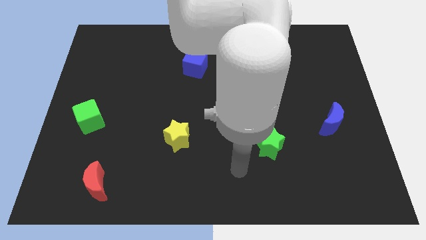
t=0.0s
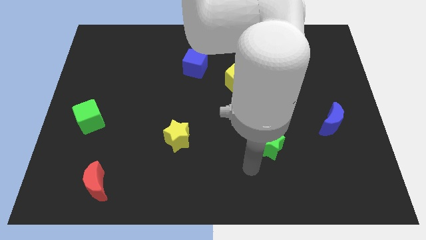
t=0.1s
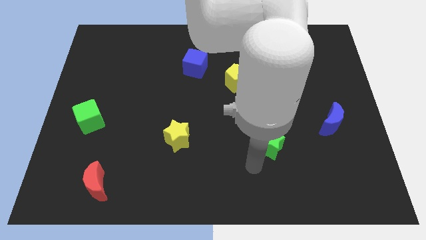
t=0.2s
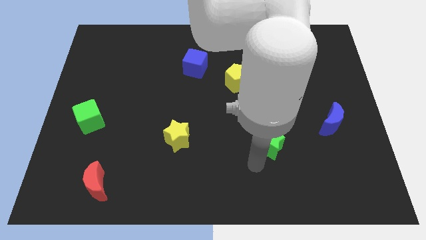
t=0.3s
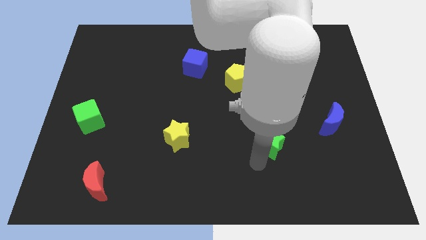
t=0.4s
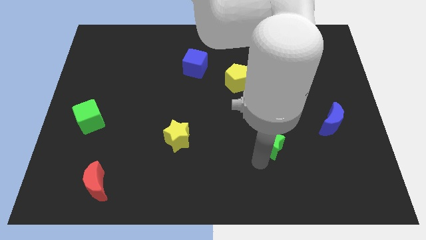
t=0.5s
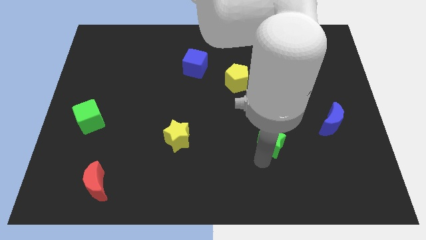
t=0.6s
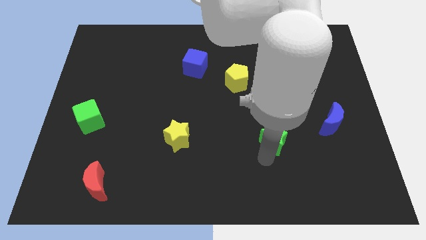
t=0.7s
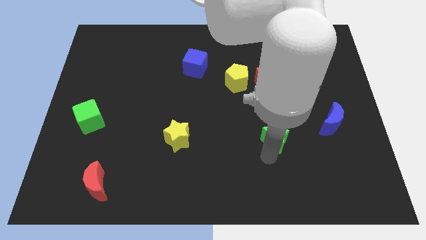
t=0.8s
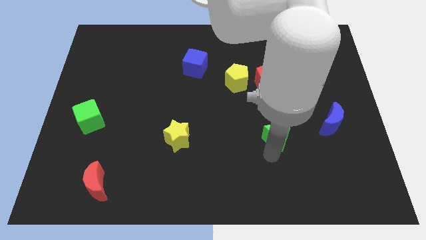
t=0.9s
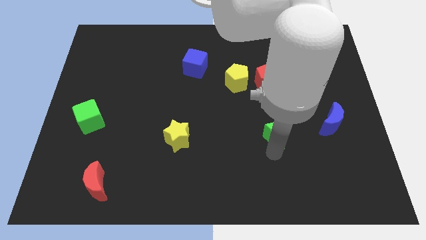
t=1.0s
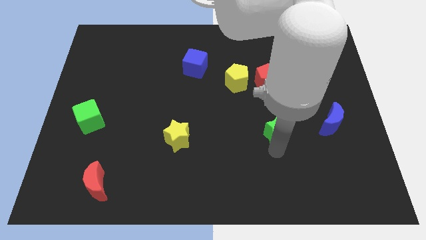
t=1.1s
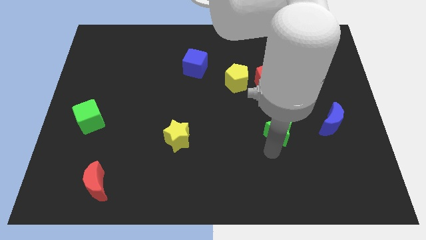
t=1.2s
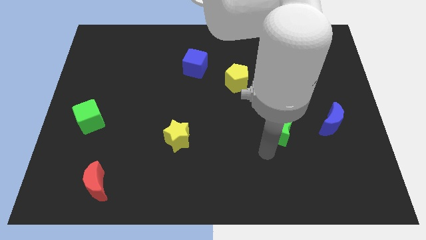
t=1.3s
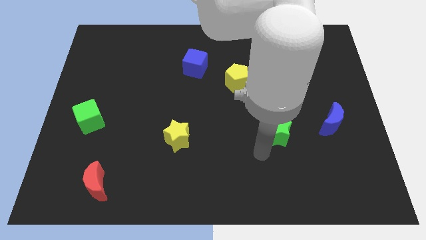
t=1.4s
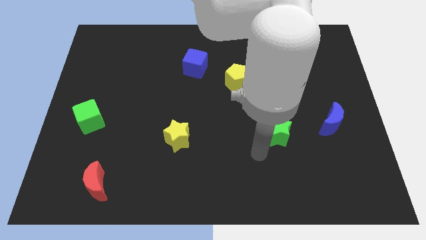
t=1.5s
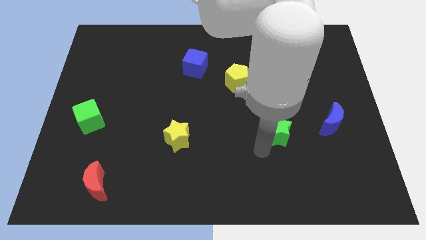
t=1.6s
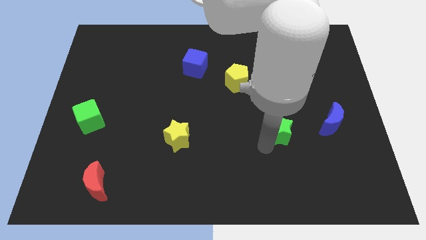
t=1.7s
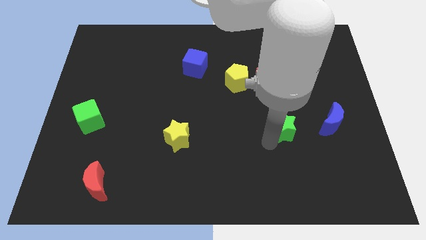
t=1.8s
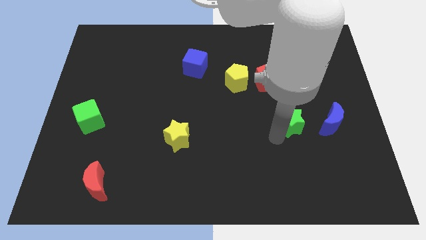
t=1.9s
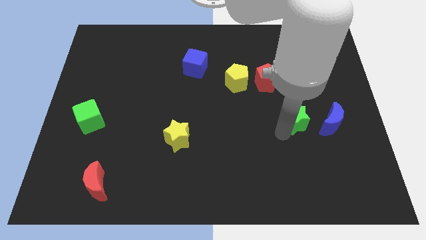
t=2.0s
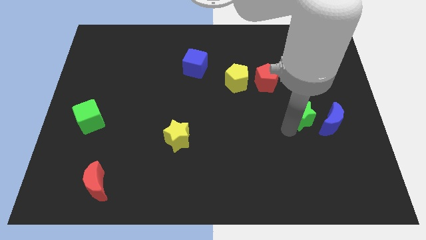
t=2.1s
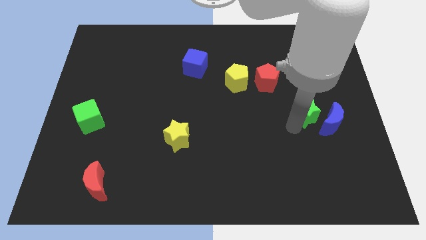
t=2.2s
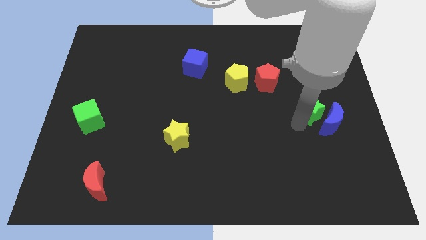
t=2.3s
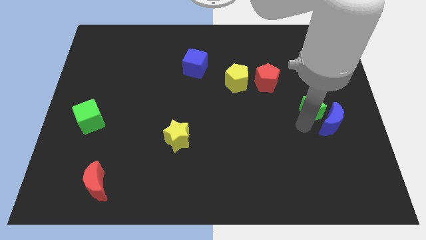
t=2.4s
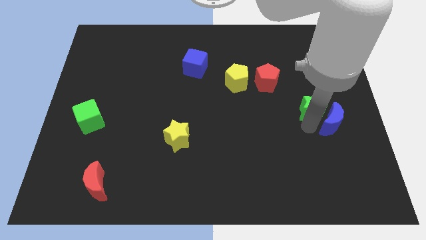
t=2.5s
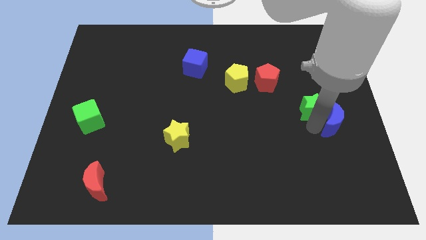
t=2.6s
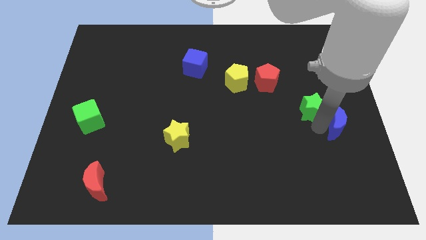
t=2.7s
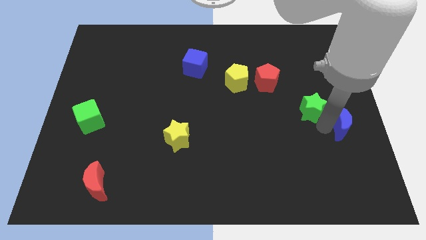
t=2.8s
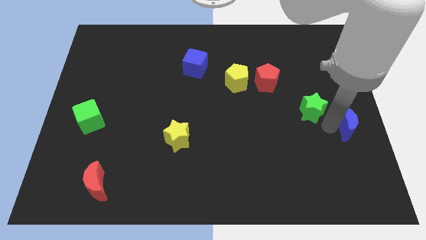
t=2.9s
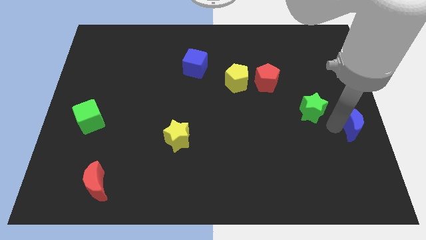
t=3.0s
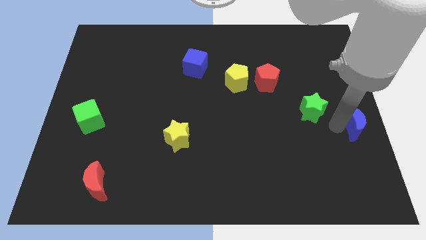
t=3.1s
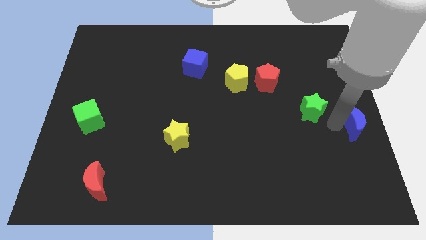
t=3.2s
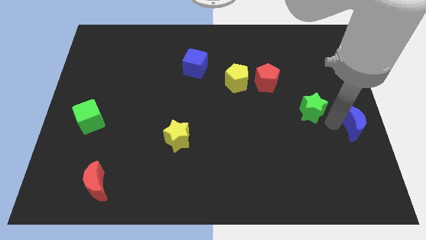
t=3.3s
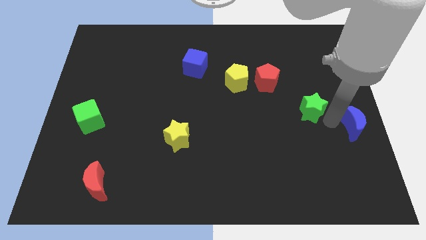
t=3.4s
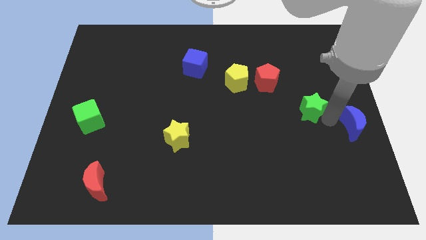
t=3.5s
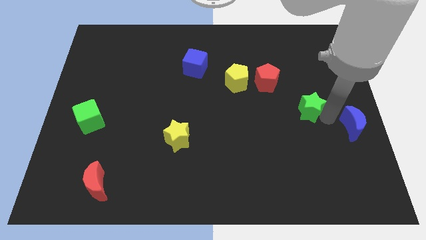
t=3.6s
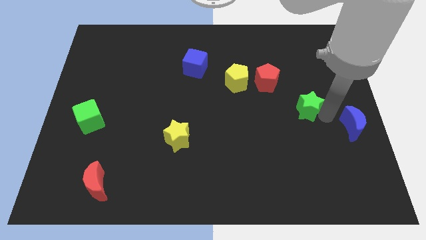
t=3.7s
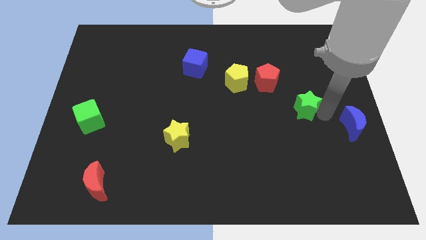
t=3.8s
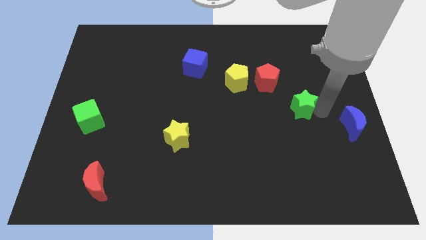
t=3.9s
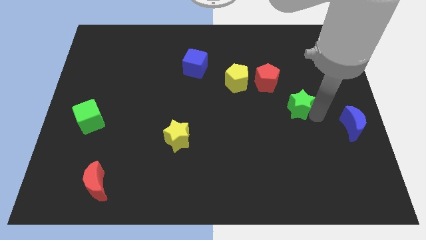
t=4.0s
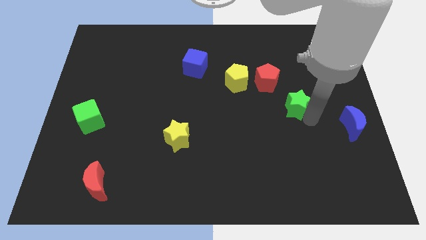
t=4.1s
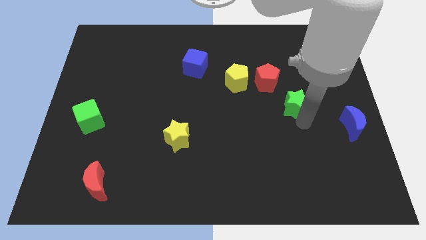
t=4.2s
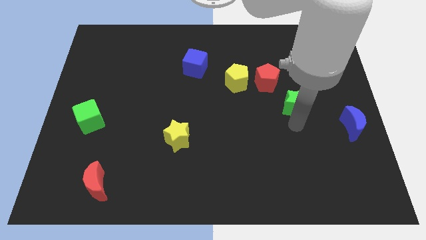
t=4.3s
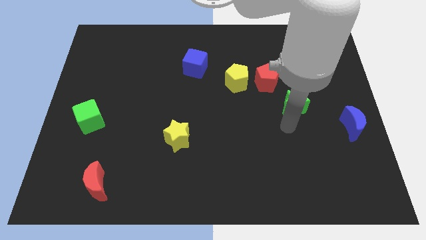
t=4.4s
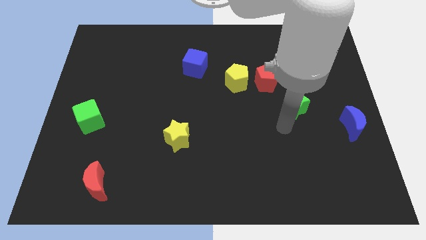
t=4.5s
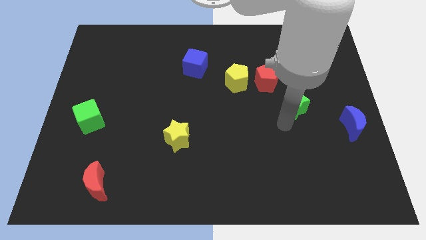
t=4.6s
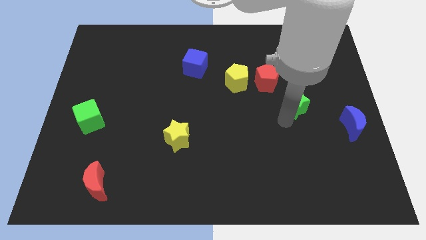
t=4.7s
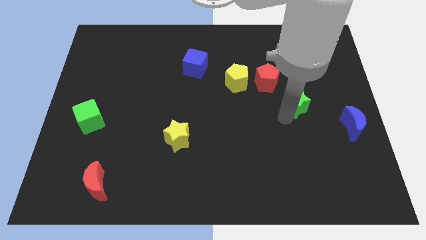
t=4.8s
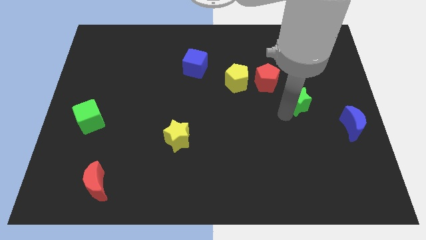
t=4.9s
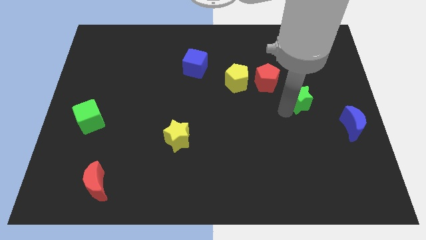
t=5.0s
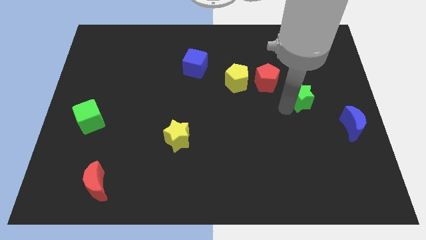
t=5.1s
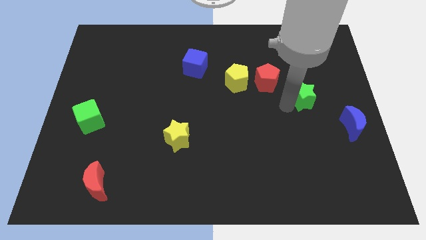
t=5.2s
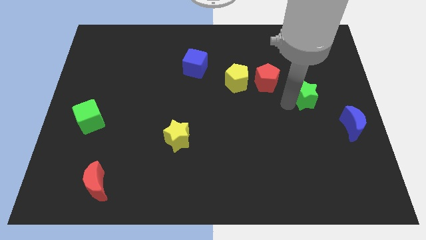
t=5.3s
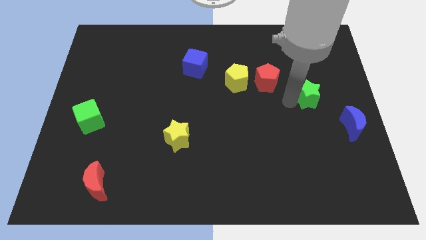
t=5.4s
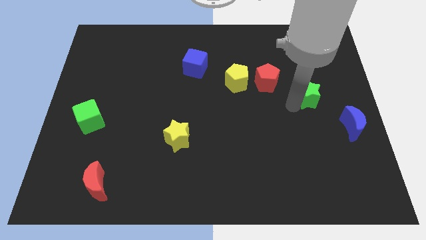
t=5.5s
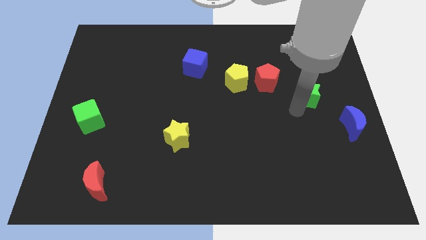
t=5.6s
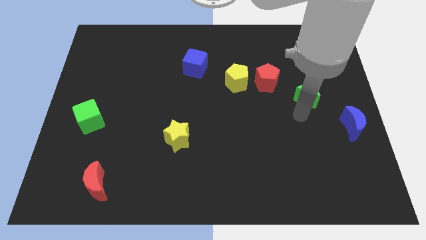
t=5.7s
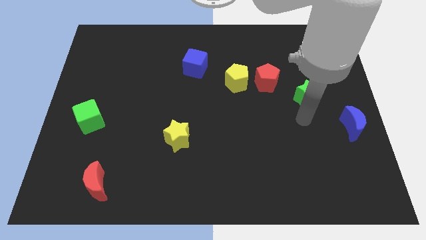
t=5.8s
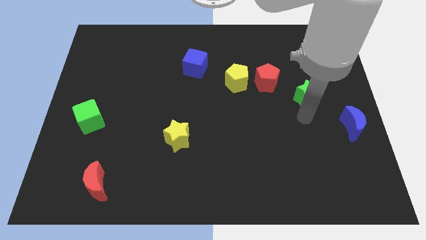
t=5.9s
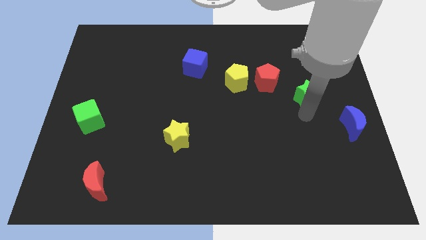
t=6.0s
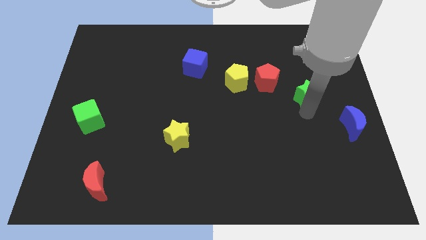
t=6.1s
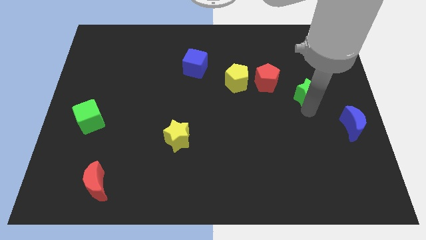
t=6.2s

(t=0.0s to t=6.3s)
move the green star right of the red pentagon

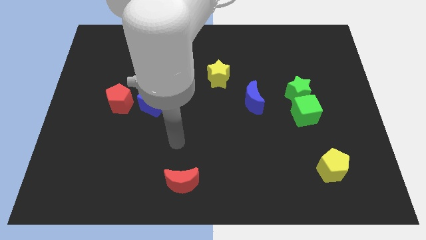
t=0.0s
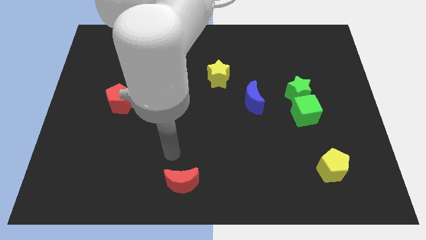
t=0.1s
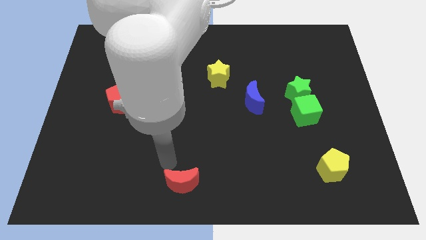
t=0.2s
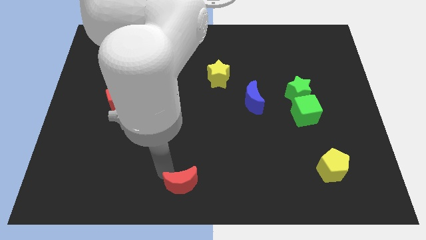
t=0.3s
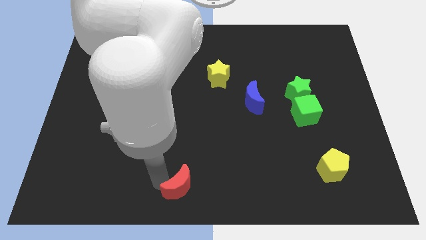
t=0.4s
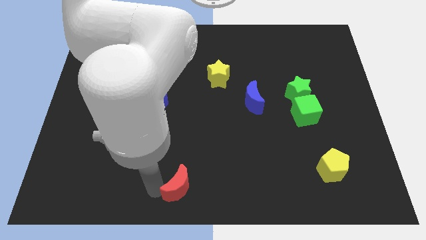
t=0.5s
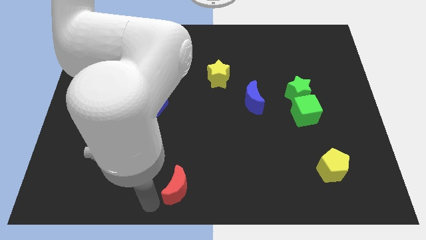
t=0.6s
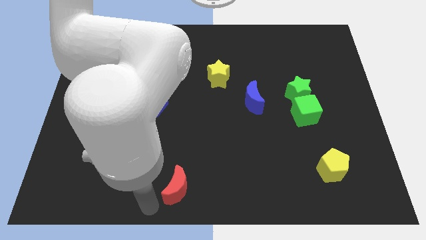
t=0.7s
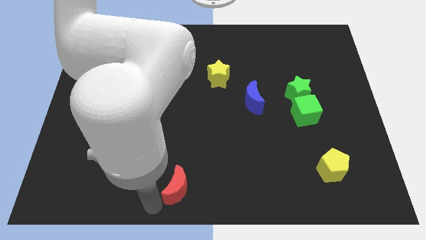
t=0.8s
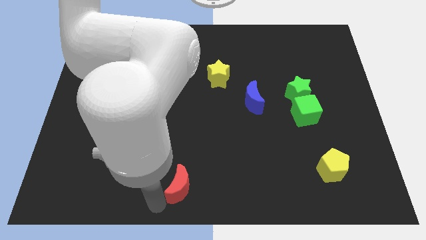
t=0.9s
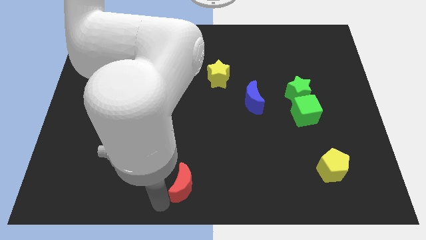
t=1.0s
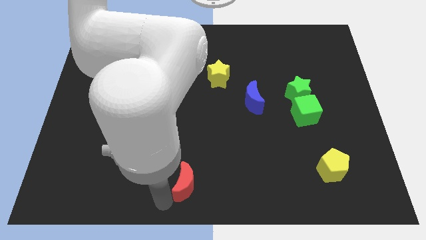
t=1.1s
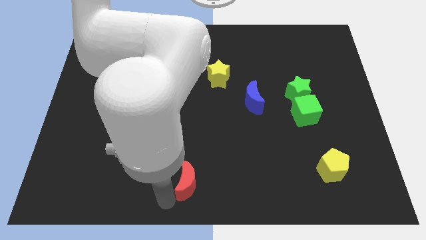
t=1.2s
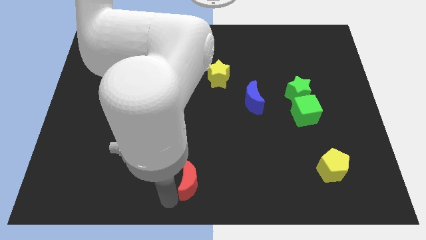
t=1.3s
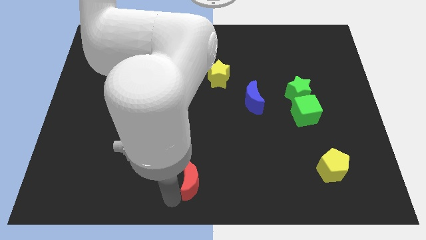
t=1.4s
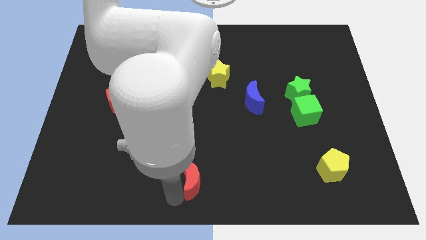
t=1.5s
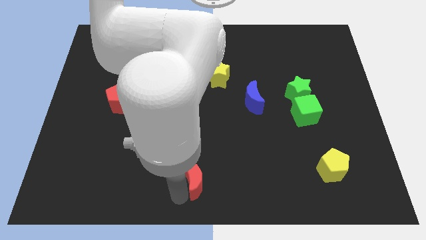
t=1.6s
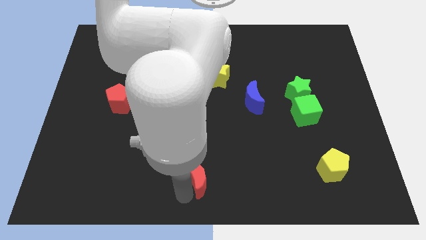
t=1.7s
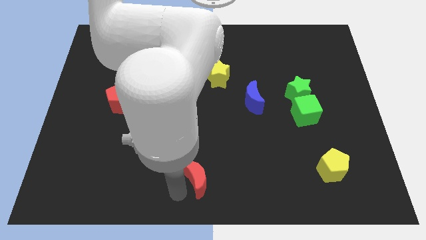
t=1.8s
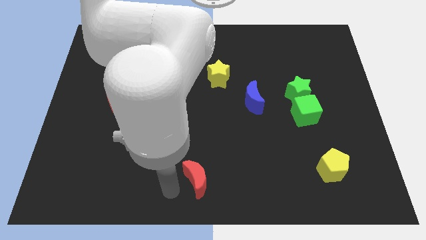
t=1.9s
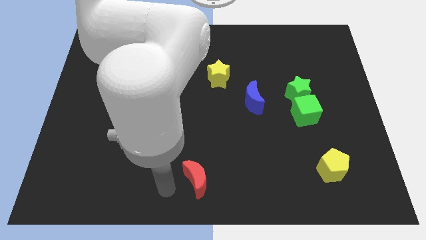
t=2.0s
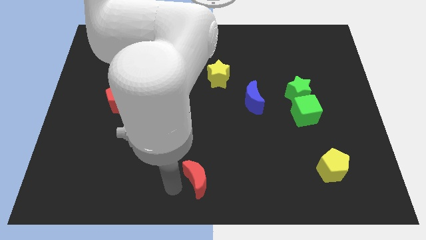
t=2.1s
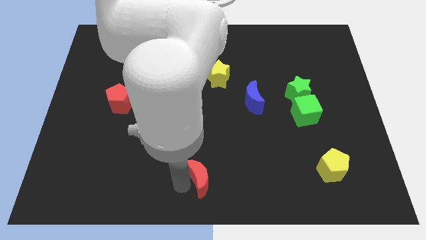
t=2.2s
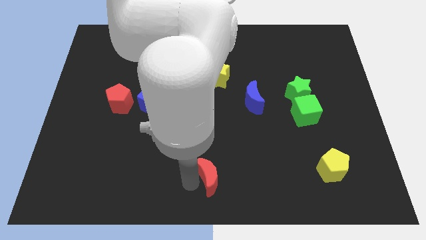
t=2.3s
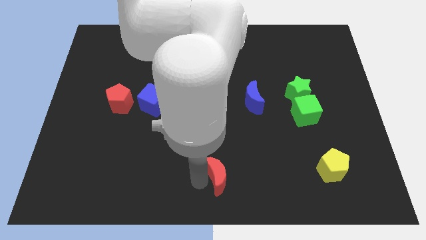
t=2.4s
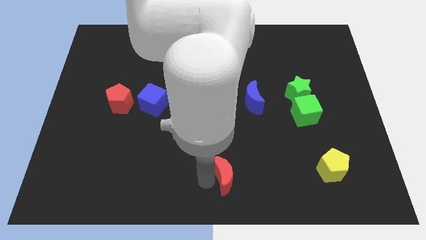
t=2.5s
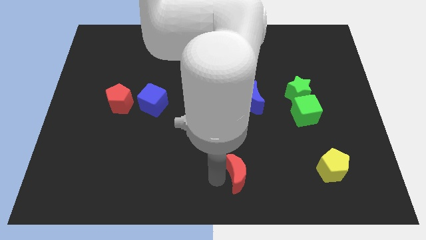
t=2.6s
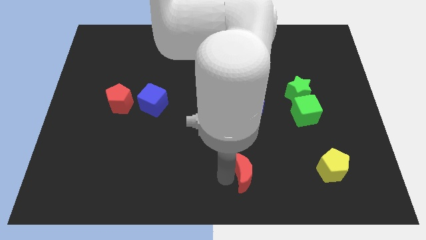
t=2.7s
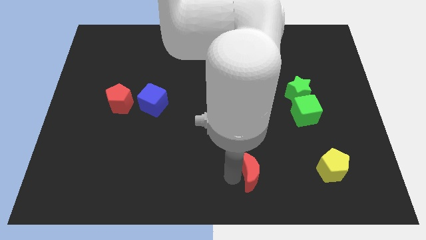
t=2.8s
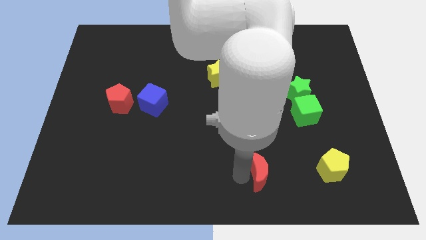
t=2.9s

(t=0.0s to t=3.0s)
push the red moon just left of the yellow pentagon
